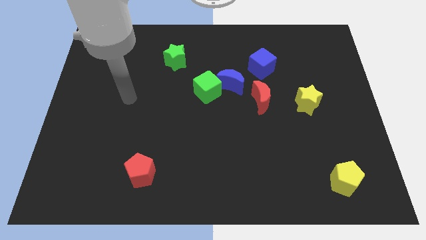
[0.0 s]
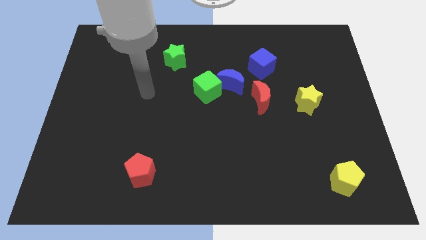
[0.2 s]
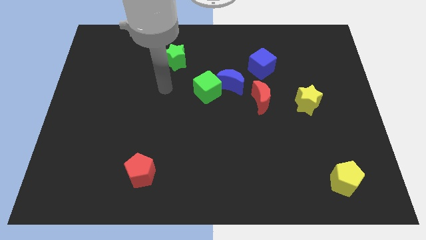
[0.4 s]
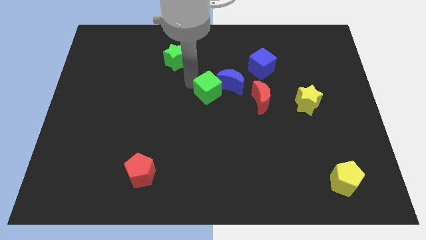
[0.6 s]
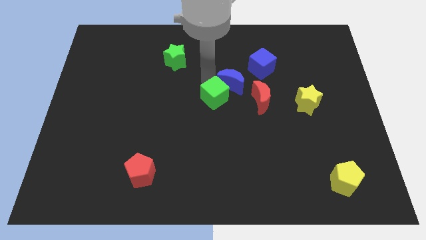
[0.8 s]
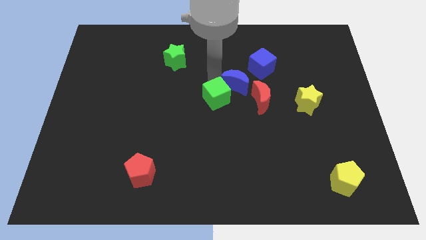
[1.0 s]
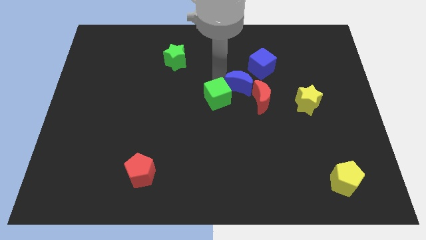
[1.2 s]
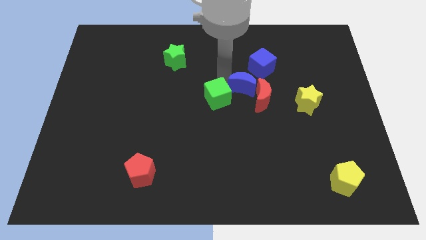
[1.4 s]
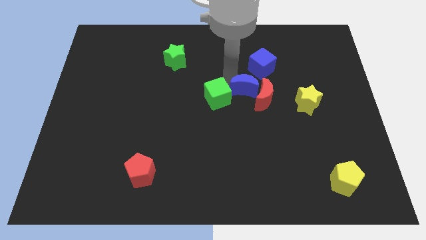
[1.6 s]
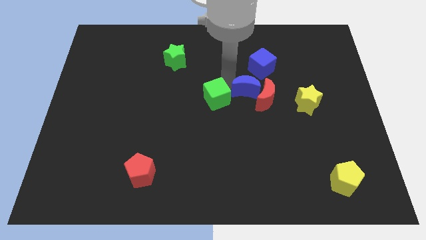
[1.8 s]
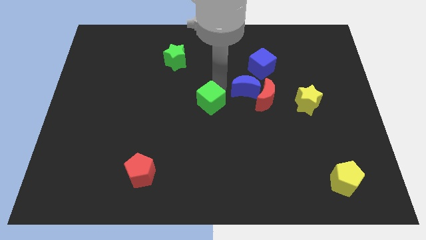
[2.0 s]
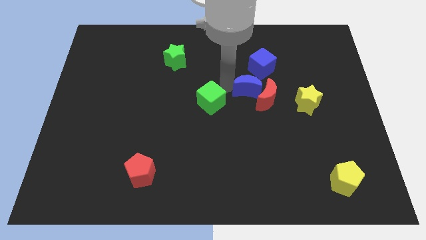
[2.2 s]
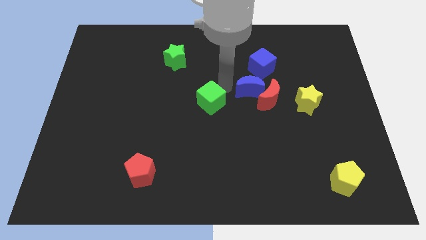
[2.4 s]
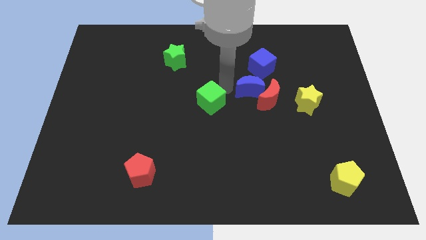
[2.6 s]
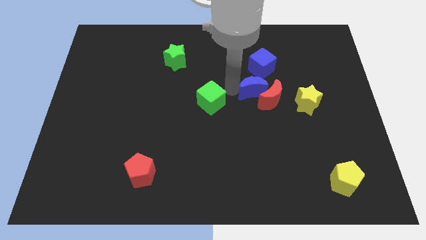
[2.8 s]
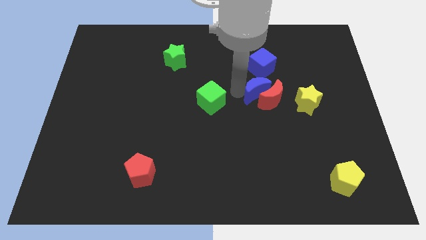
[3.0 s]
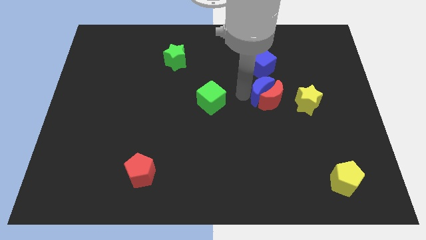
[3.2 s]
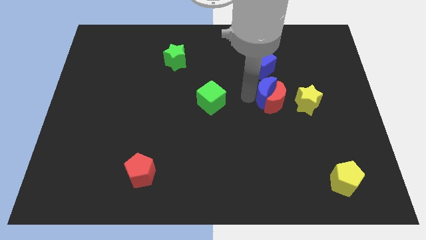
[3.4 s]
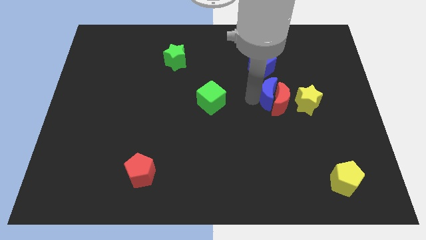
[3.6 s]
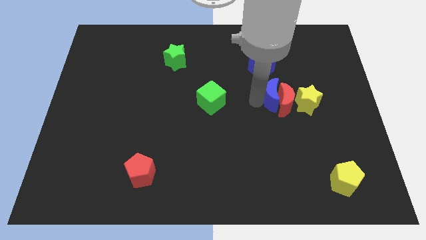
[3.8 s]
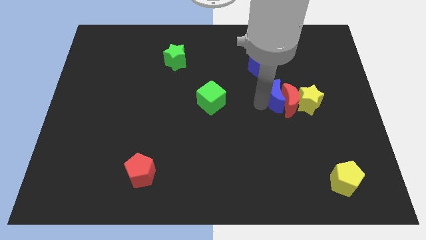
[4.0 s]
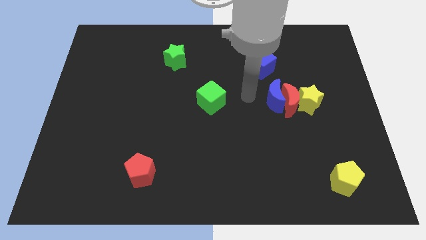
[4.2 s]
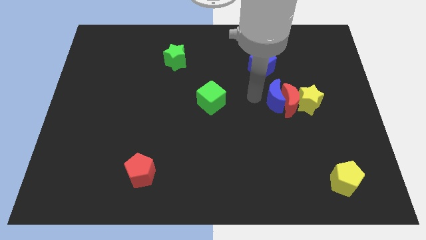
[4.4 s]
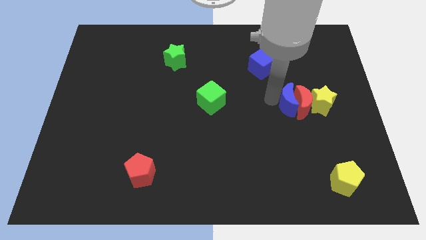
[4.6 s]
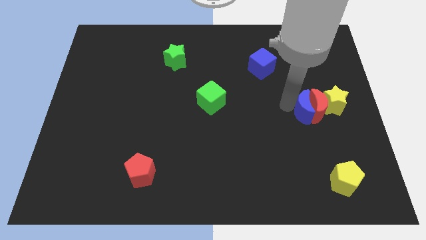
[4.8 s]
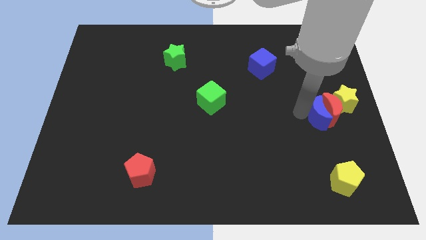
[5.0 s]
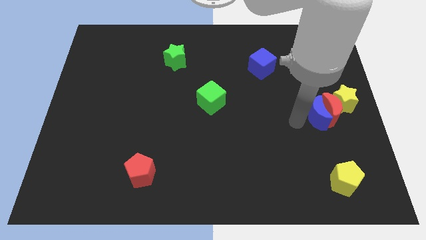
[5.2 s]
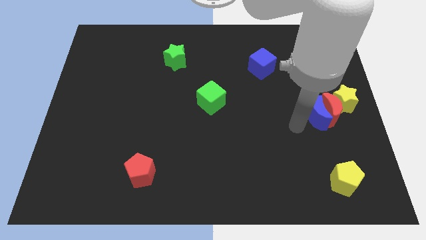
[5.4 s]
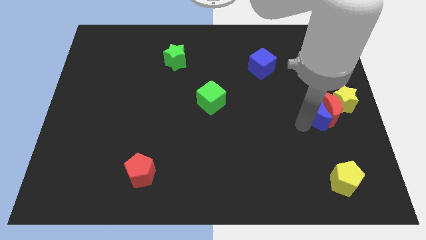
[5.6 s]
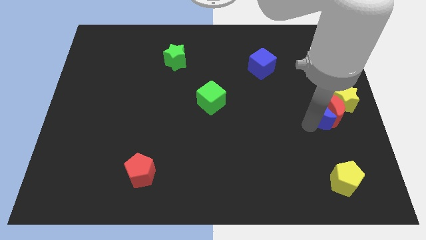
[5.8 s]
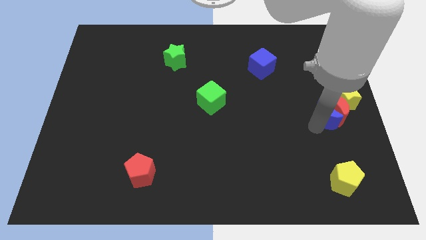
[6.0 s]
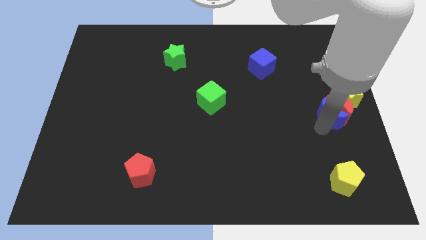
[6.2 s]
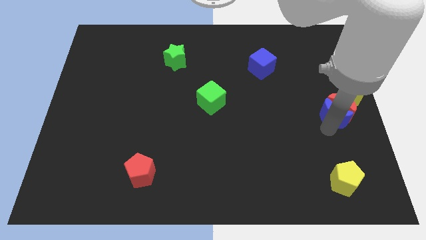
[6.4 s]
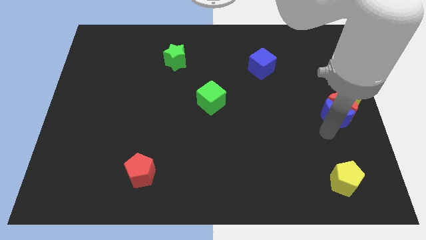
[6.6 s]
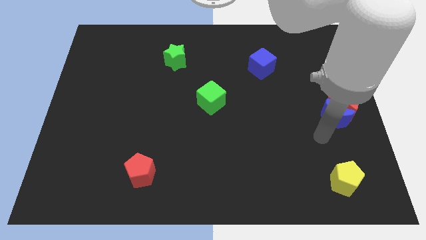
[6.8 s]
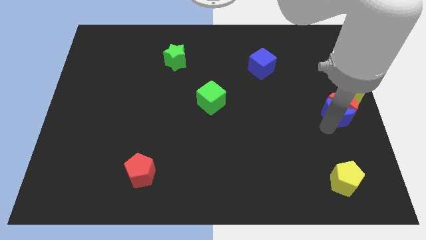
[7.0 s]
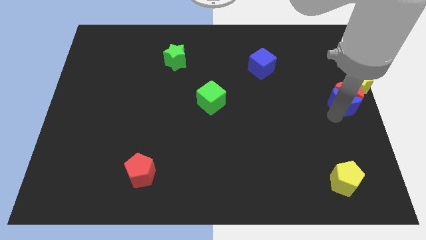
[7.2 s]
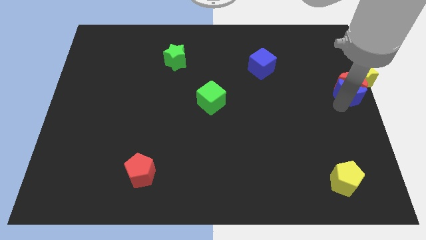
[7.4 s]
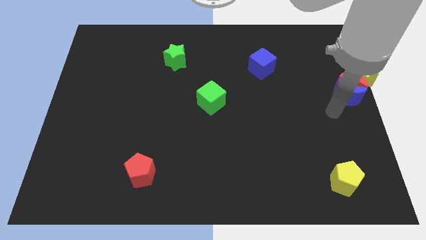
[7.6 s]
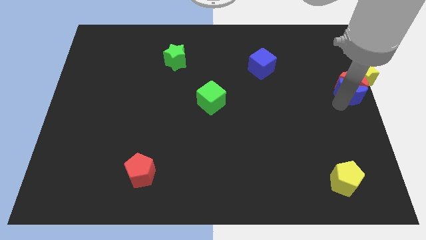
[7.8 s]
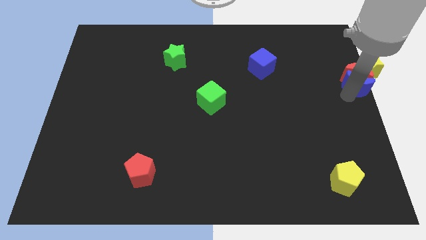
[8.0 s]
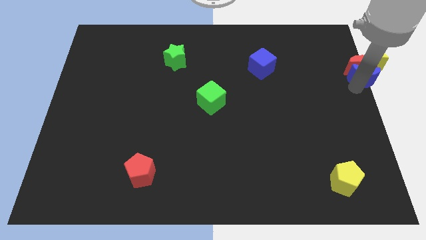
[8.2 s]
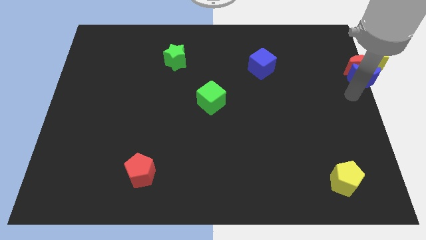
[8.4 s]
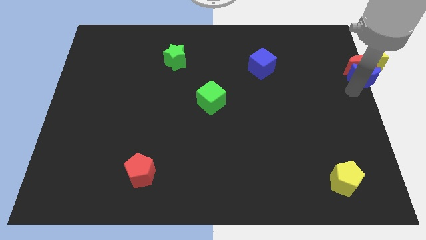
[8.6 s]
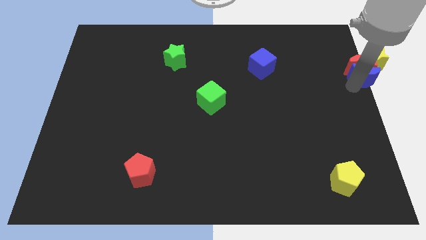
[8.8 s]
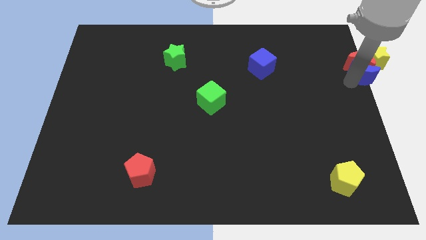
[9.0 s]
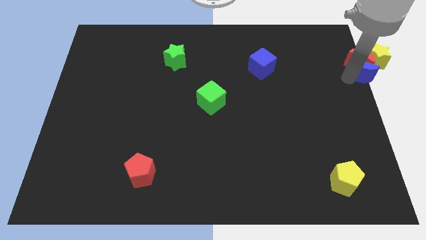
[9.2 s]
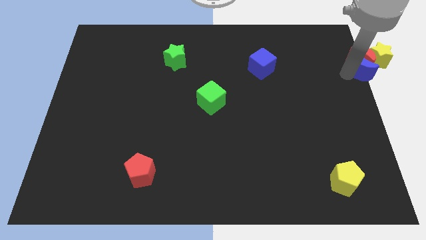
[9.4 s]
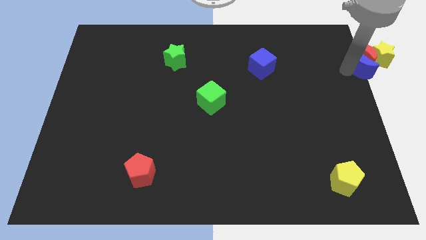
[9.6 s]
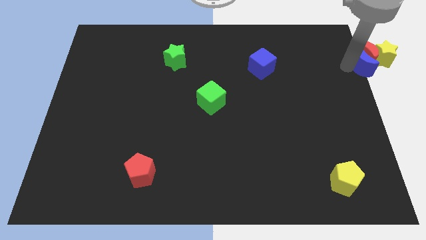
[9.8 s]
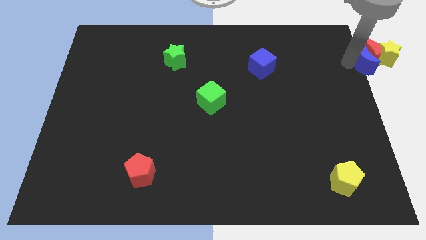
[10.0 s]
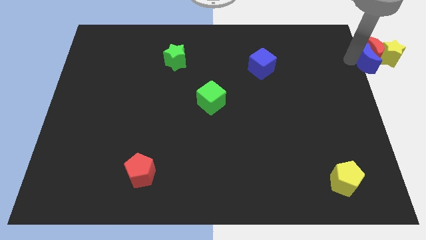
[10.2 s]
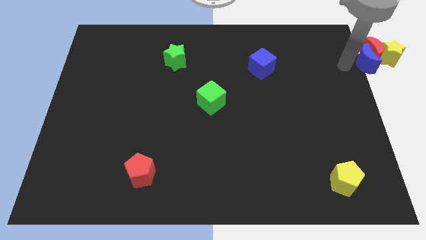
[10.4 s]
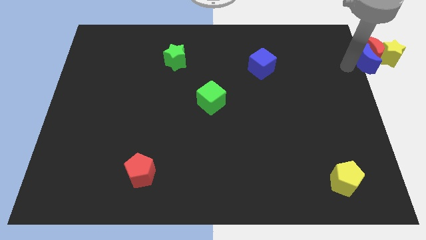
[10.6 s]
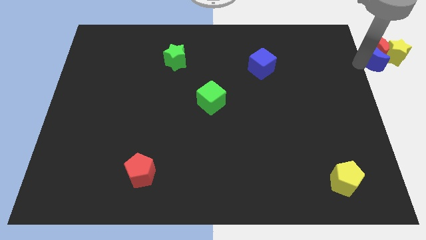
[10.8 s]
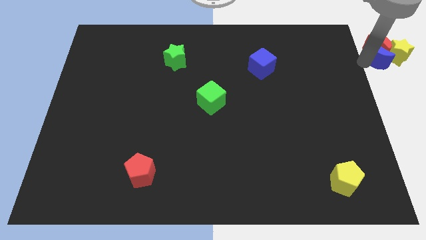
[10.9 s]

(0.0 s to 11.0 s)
put the blue moon towards the yellow star

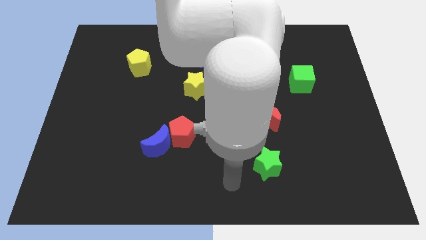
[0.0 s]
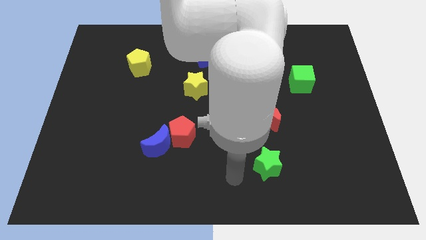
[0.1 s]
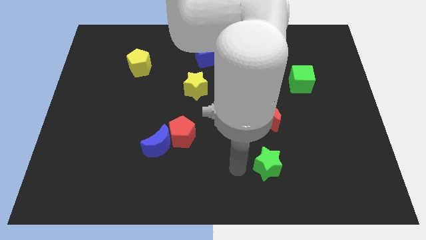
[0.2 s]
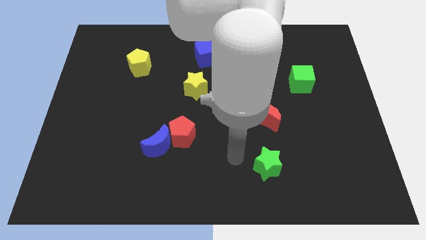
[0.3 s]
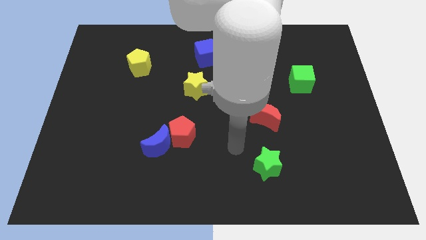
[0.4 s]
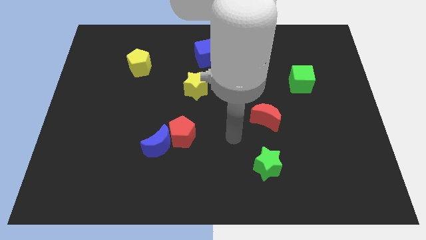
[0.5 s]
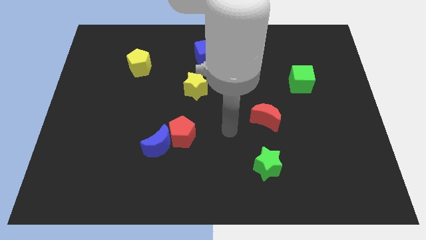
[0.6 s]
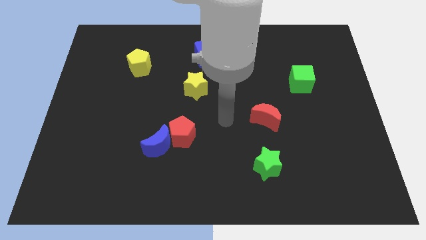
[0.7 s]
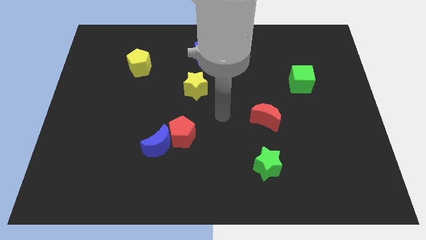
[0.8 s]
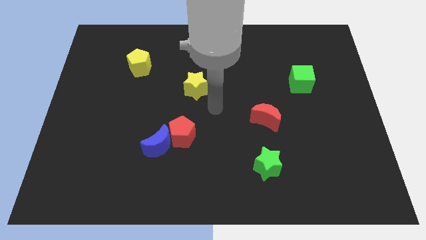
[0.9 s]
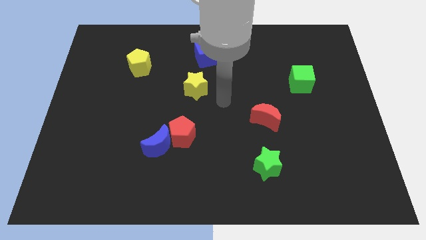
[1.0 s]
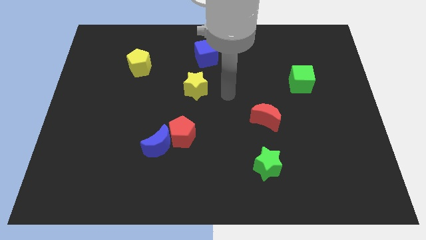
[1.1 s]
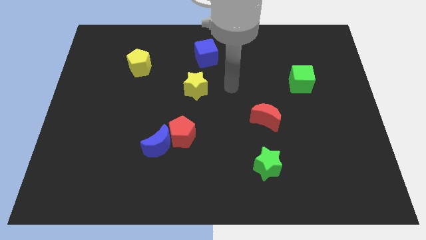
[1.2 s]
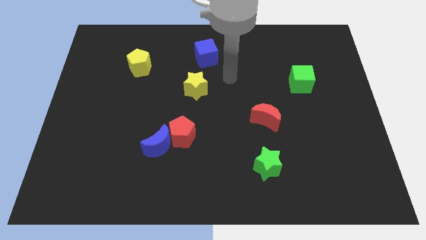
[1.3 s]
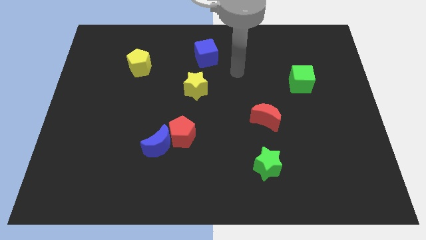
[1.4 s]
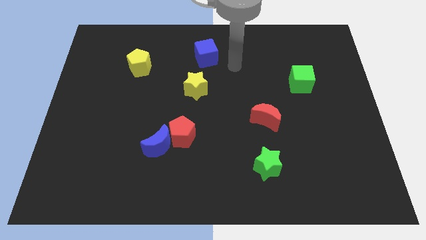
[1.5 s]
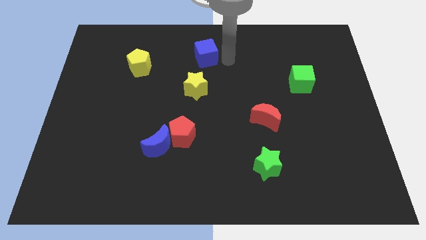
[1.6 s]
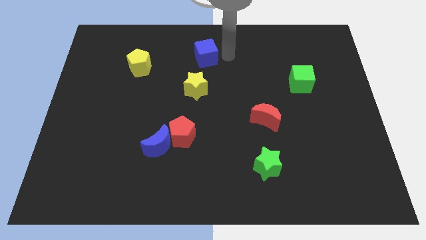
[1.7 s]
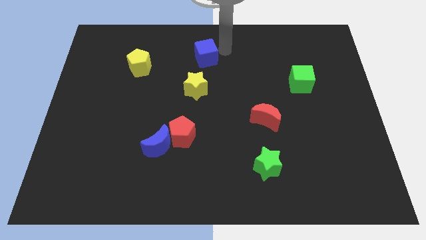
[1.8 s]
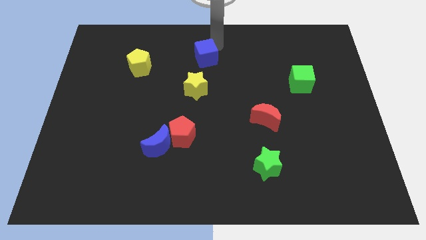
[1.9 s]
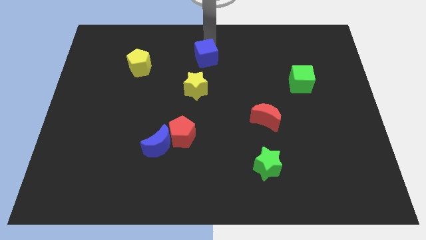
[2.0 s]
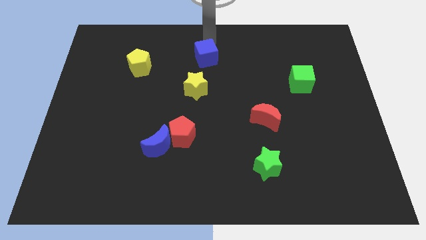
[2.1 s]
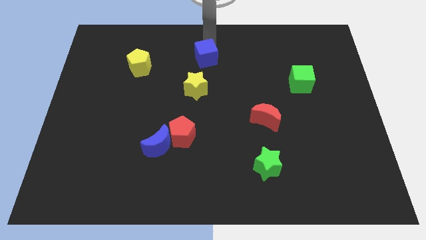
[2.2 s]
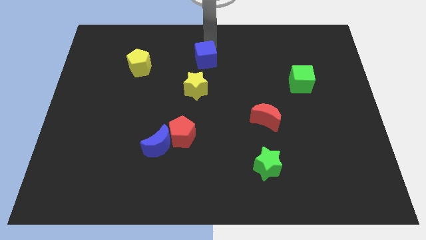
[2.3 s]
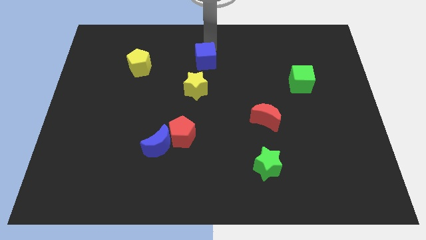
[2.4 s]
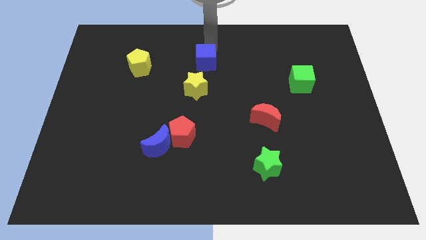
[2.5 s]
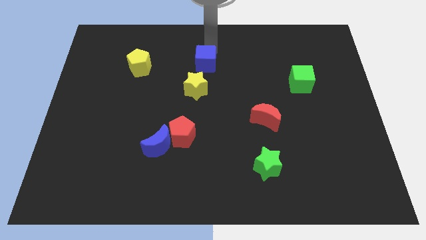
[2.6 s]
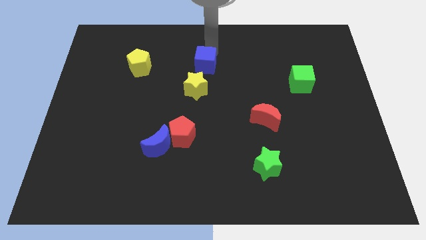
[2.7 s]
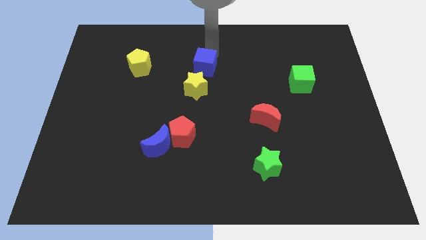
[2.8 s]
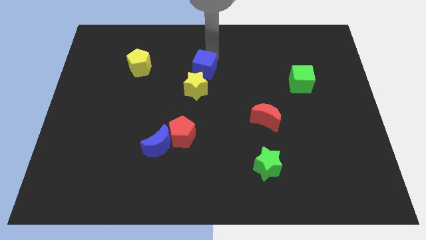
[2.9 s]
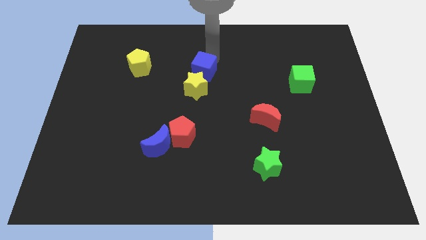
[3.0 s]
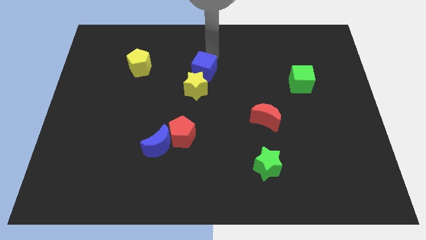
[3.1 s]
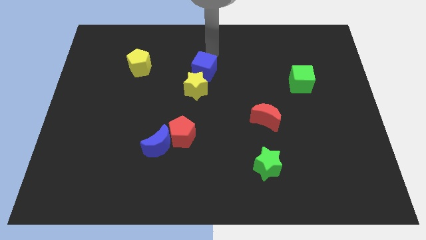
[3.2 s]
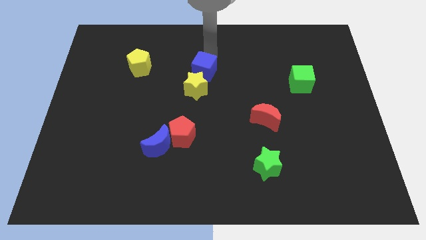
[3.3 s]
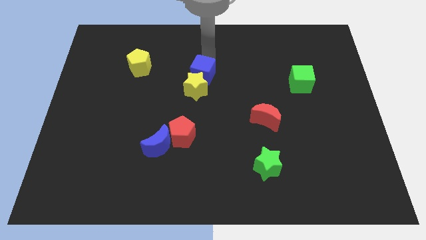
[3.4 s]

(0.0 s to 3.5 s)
slide the blue cube to the yellow star
